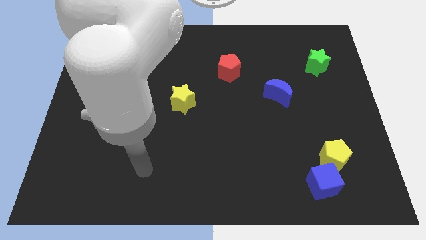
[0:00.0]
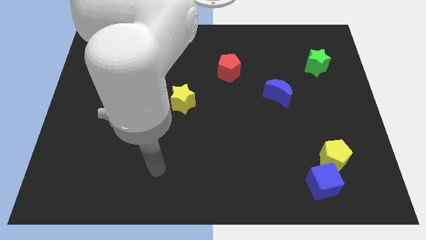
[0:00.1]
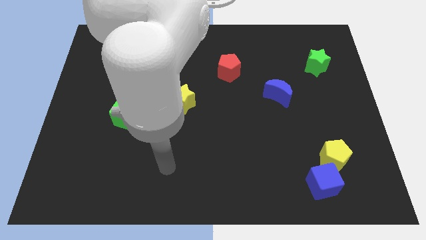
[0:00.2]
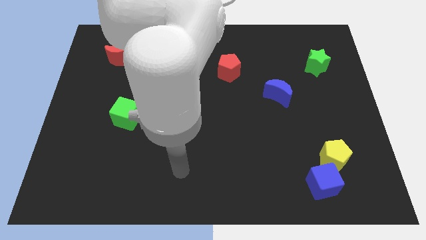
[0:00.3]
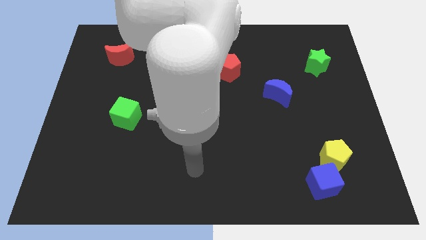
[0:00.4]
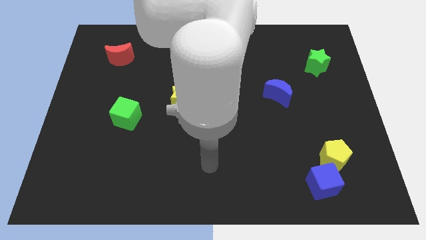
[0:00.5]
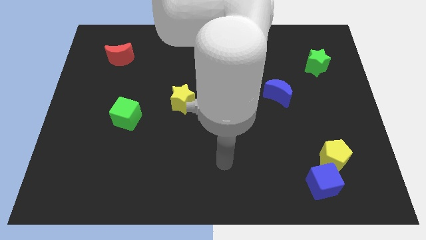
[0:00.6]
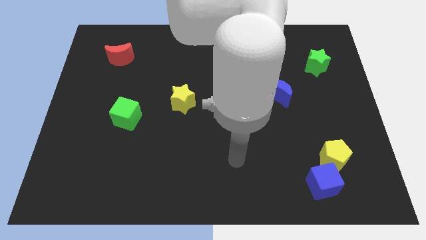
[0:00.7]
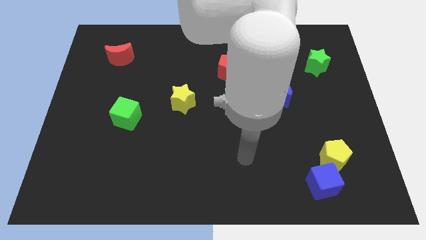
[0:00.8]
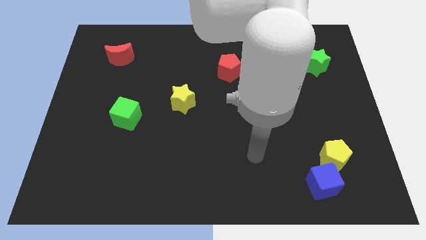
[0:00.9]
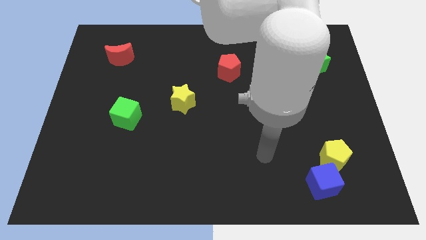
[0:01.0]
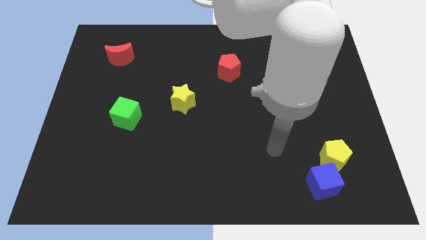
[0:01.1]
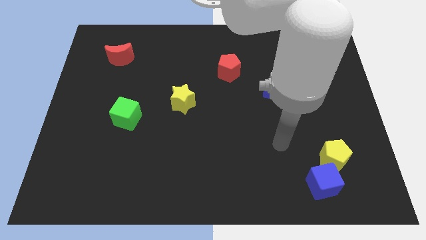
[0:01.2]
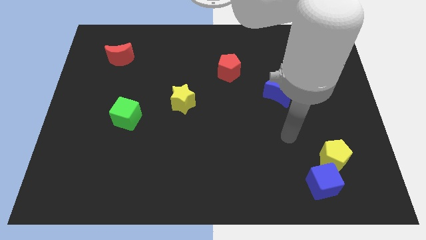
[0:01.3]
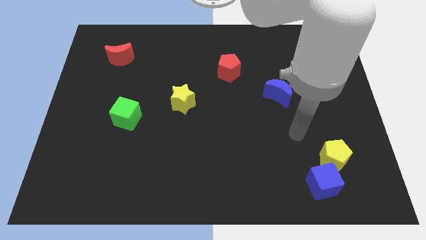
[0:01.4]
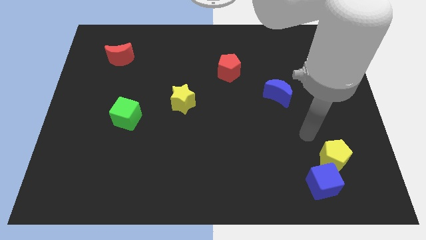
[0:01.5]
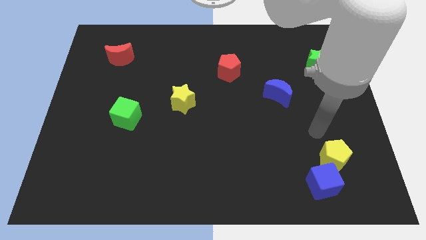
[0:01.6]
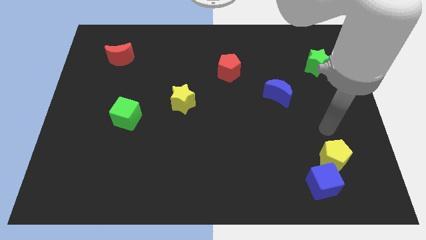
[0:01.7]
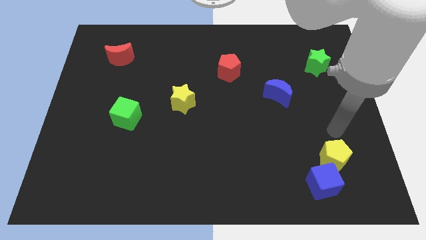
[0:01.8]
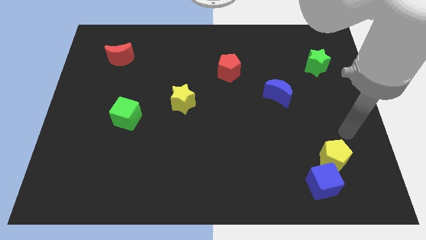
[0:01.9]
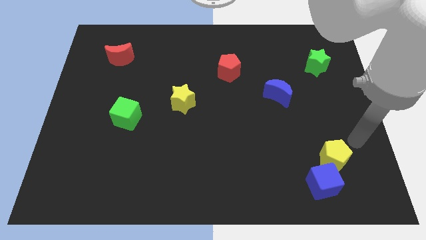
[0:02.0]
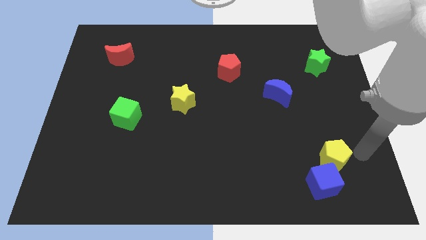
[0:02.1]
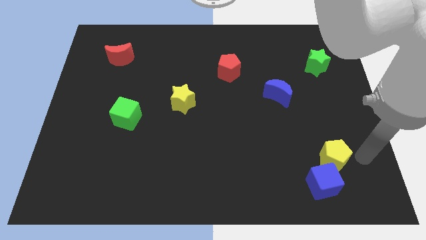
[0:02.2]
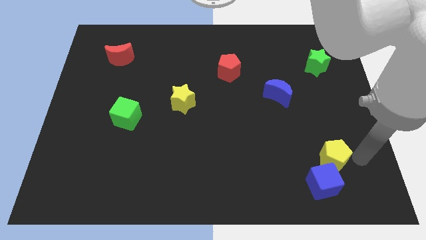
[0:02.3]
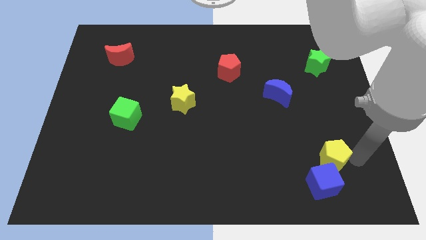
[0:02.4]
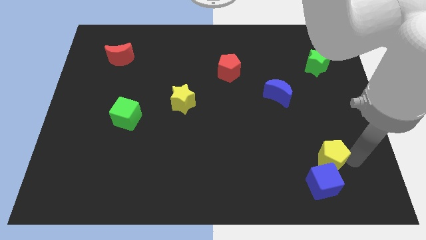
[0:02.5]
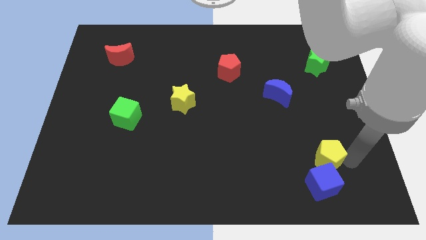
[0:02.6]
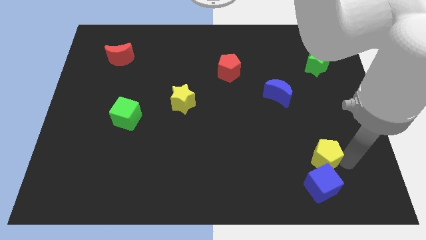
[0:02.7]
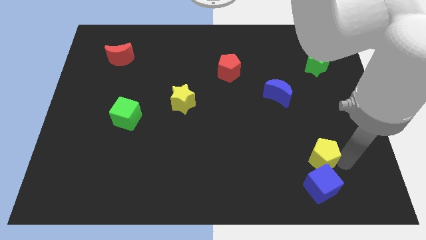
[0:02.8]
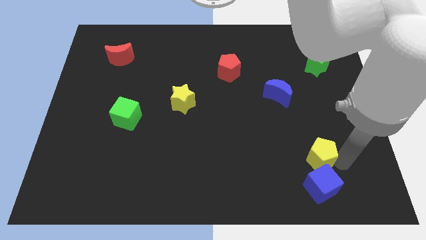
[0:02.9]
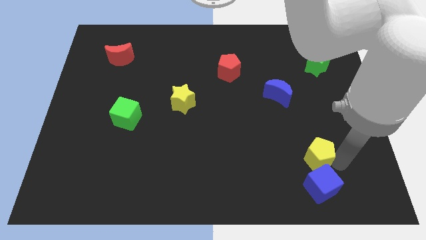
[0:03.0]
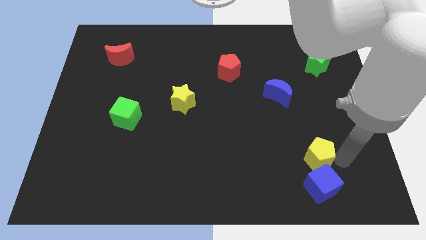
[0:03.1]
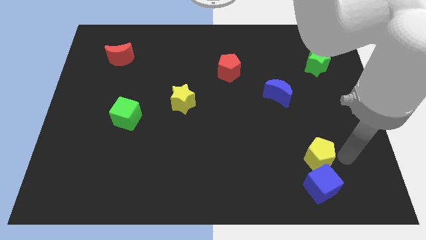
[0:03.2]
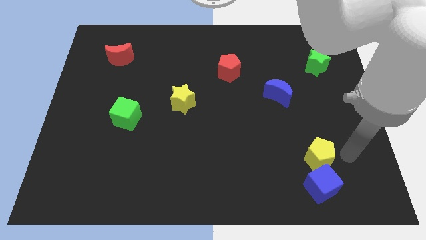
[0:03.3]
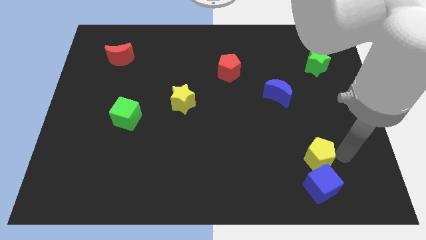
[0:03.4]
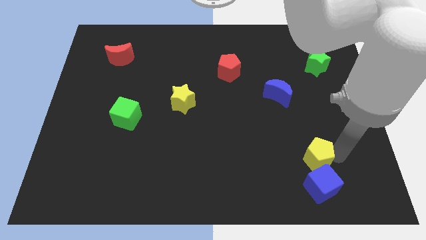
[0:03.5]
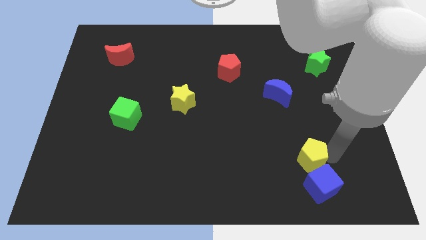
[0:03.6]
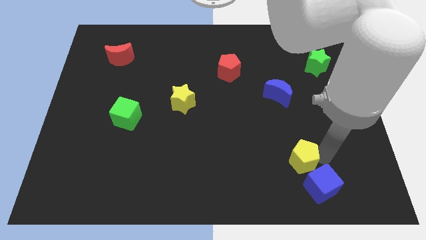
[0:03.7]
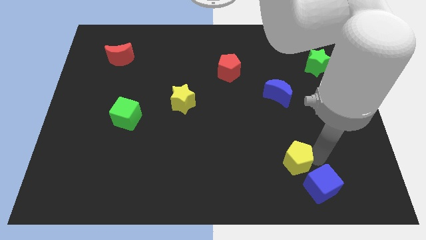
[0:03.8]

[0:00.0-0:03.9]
slide the yellow pentagon somewhat left

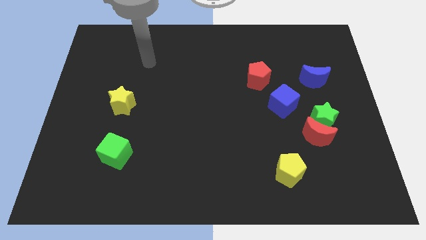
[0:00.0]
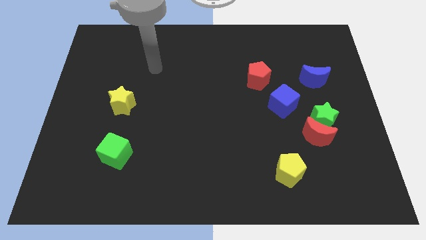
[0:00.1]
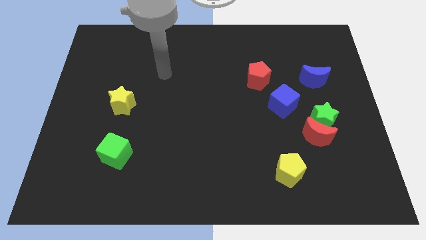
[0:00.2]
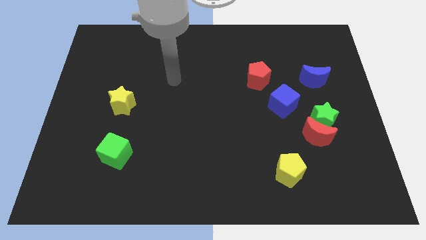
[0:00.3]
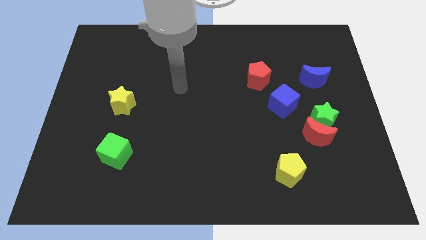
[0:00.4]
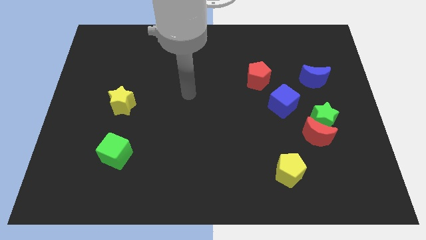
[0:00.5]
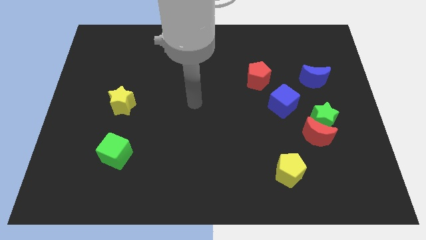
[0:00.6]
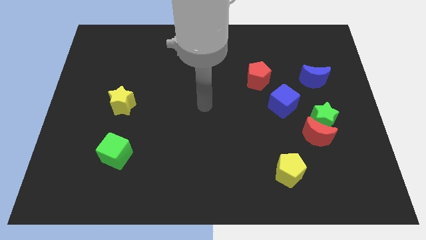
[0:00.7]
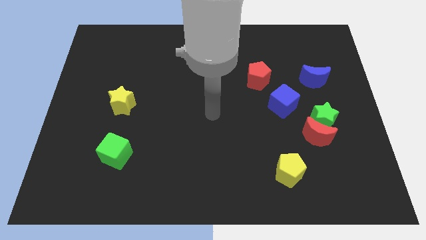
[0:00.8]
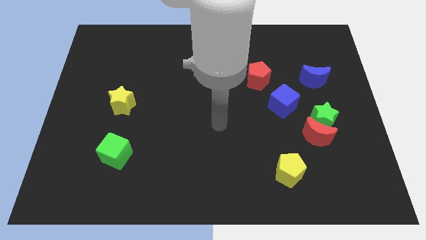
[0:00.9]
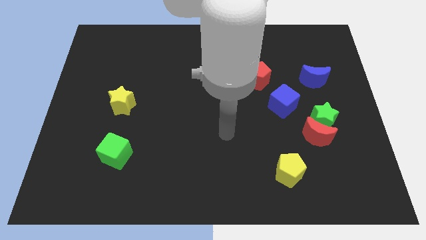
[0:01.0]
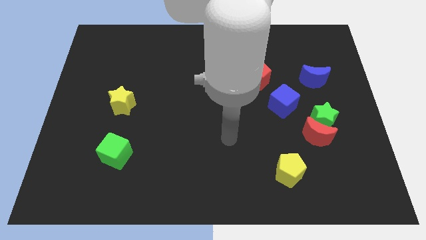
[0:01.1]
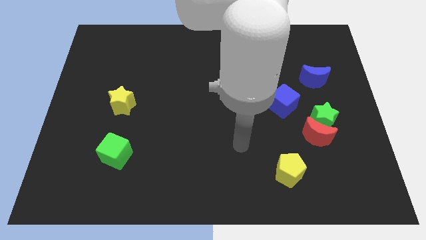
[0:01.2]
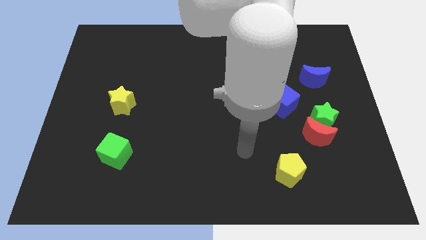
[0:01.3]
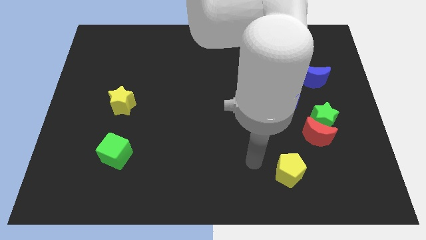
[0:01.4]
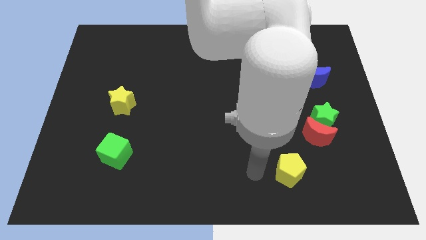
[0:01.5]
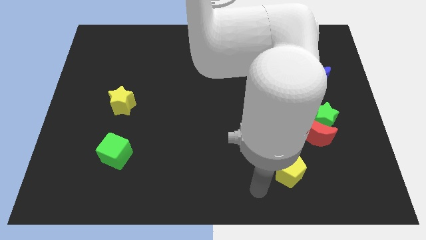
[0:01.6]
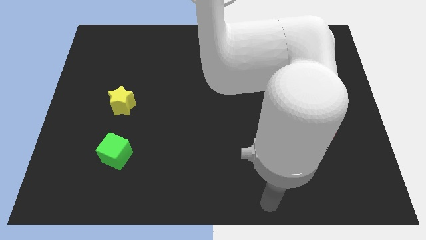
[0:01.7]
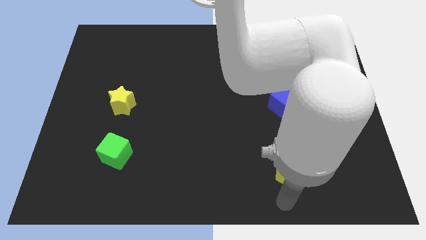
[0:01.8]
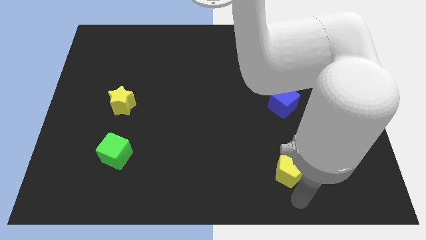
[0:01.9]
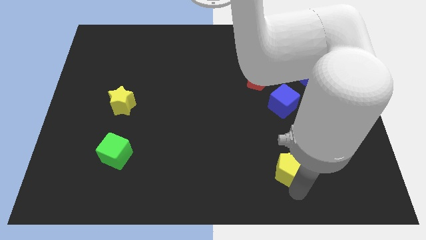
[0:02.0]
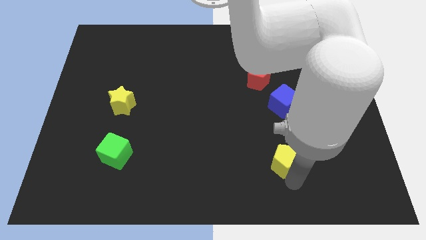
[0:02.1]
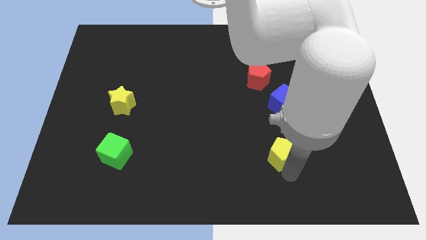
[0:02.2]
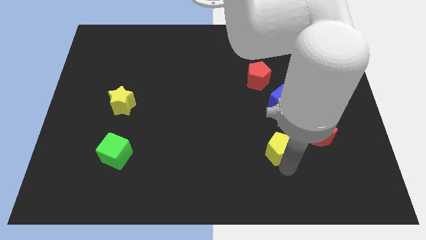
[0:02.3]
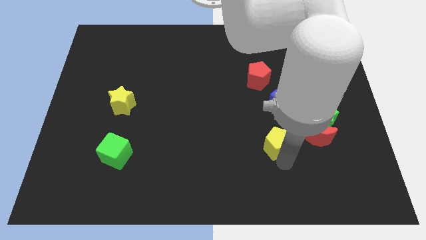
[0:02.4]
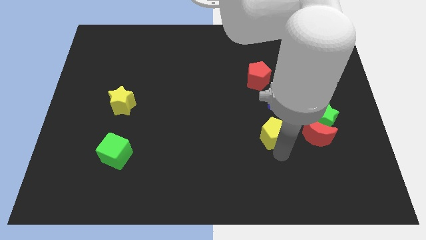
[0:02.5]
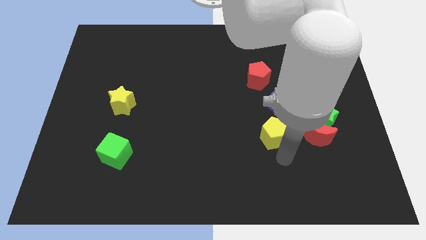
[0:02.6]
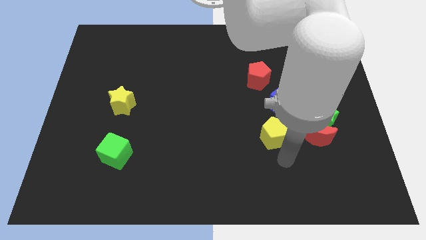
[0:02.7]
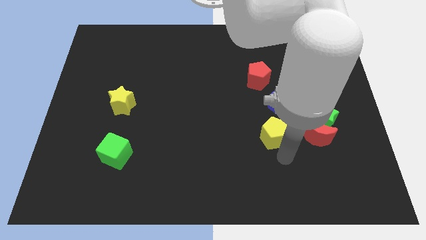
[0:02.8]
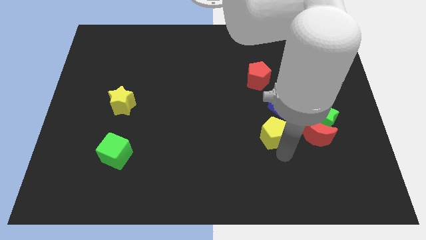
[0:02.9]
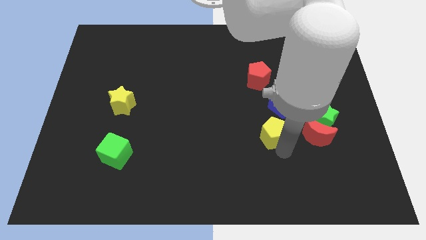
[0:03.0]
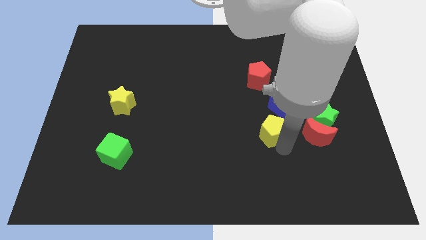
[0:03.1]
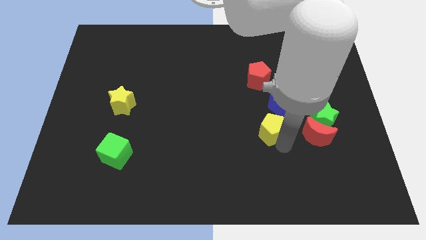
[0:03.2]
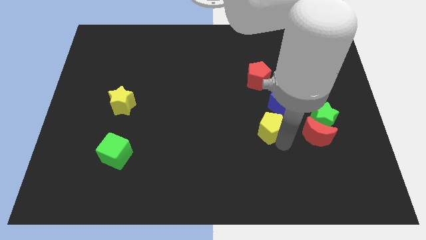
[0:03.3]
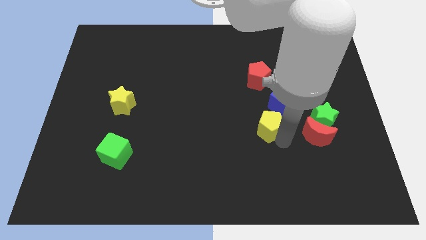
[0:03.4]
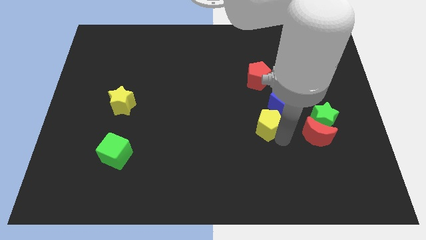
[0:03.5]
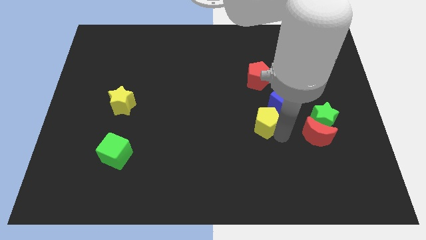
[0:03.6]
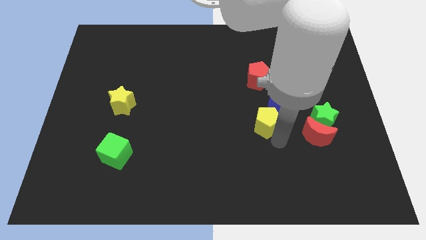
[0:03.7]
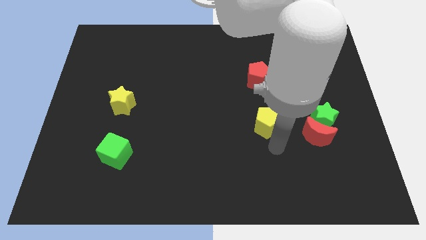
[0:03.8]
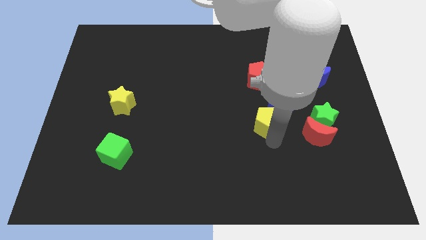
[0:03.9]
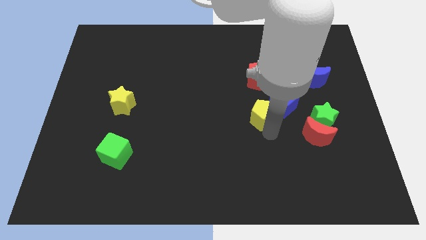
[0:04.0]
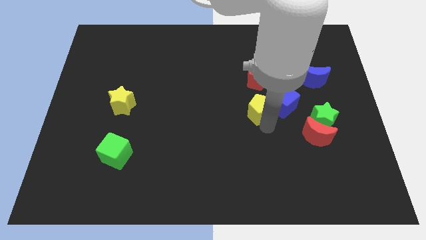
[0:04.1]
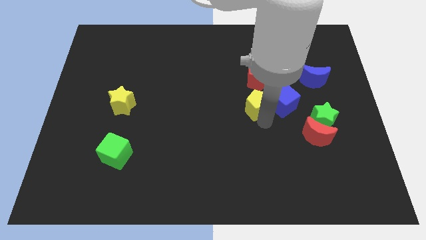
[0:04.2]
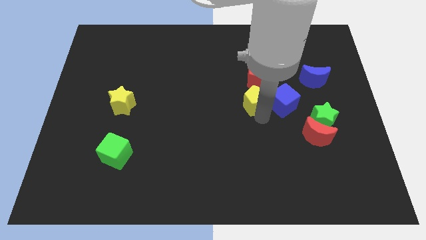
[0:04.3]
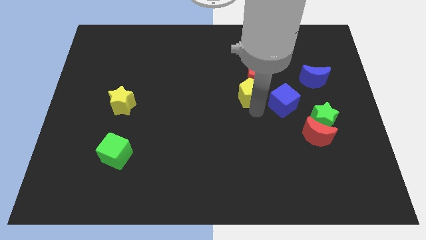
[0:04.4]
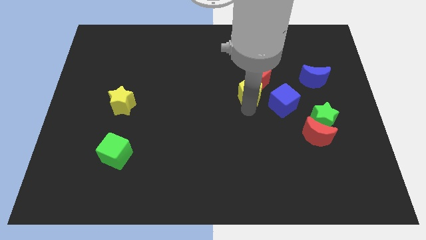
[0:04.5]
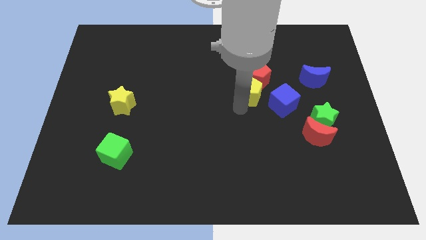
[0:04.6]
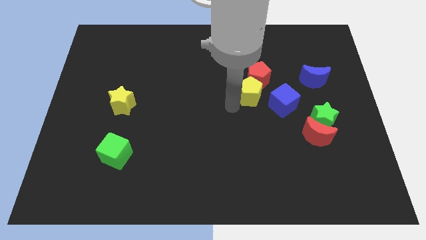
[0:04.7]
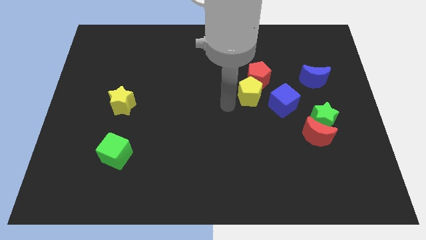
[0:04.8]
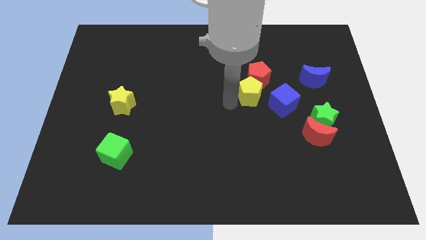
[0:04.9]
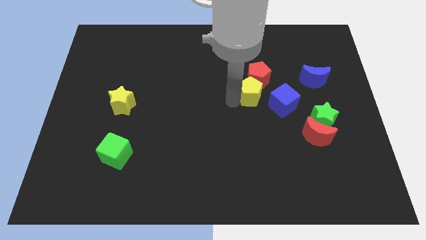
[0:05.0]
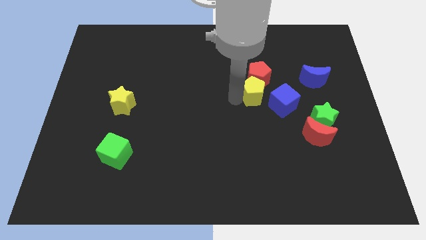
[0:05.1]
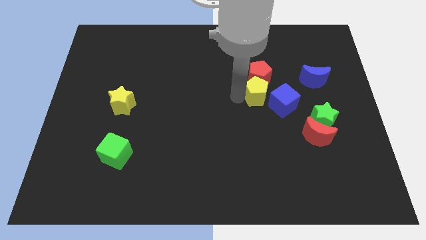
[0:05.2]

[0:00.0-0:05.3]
push the yellow pentagon up
